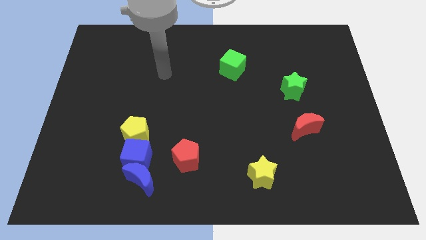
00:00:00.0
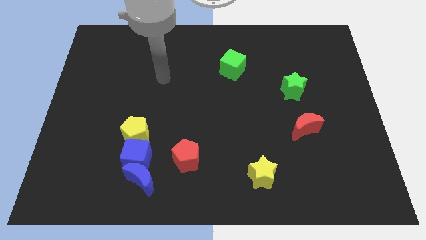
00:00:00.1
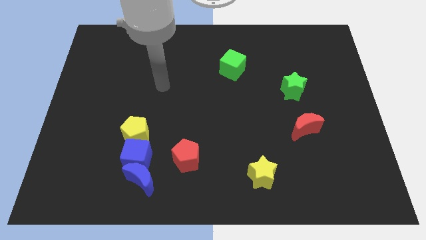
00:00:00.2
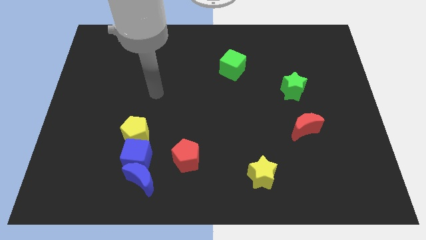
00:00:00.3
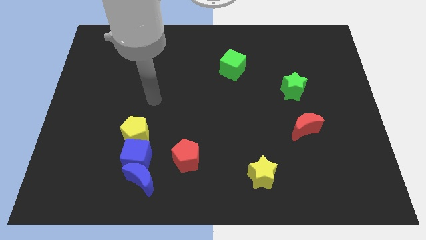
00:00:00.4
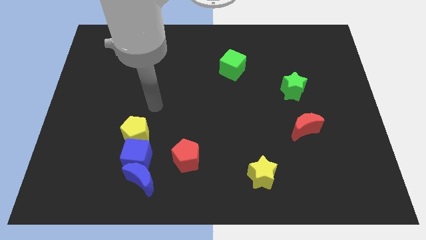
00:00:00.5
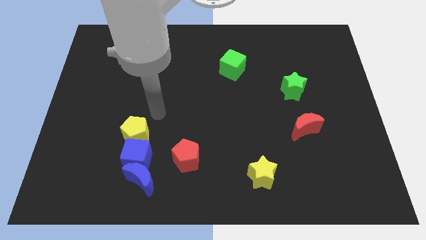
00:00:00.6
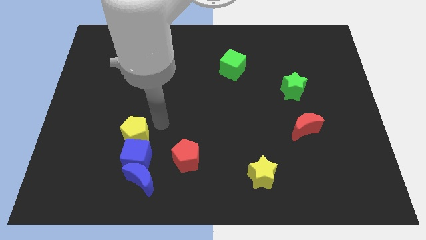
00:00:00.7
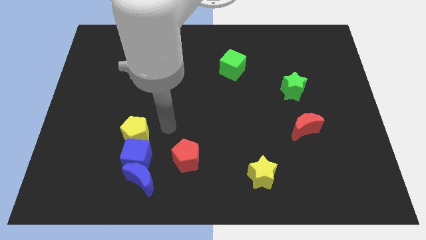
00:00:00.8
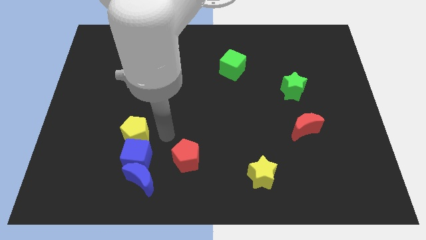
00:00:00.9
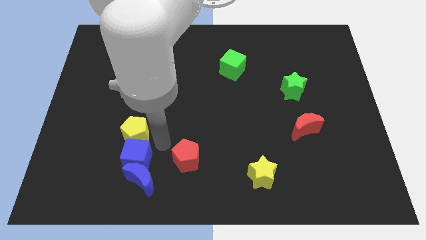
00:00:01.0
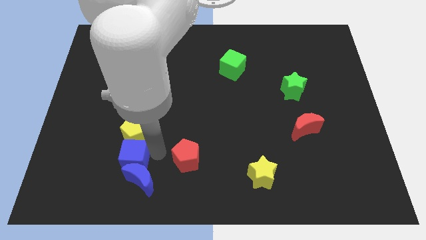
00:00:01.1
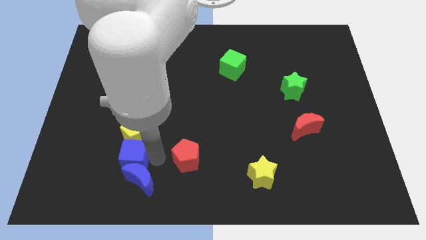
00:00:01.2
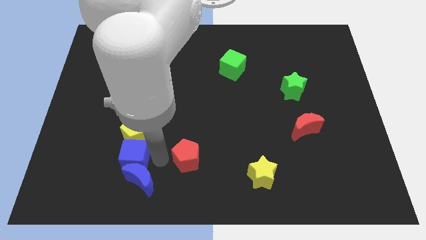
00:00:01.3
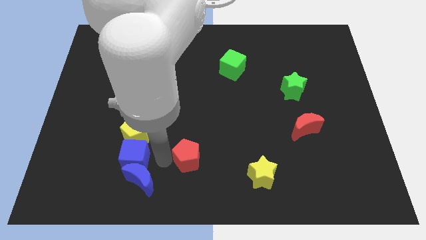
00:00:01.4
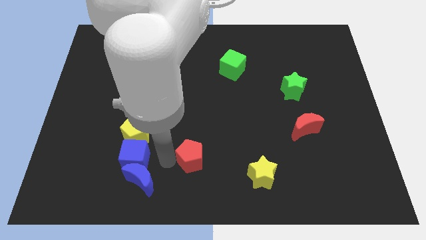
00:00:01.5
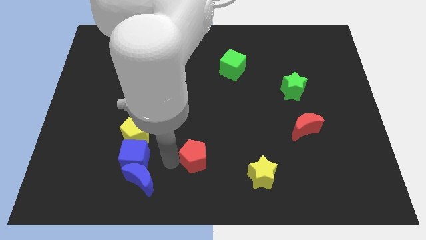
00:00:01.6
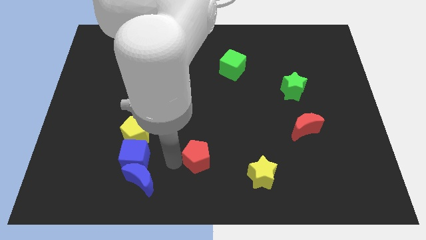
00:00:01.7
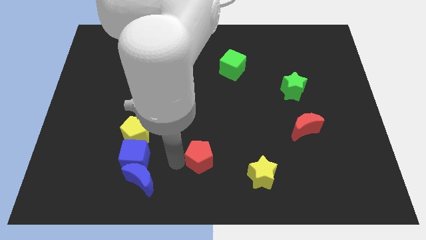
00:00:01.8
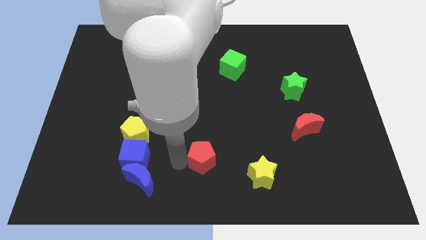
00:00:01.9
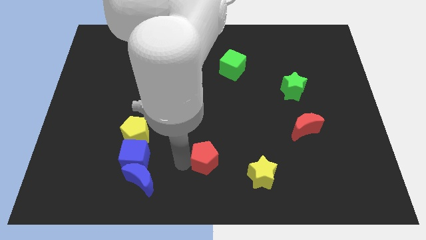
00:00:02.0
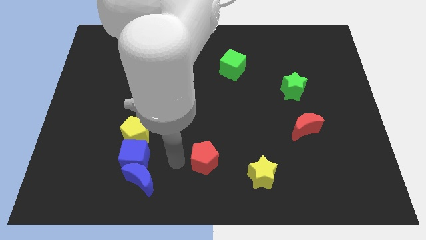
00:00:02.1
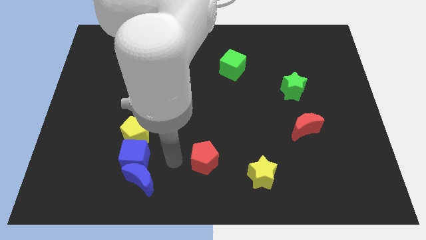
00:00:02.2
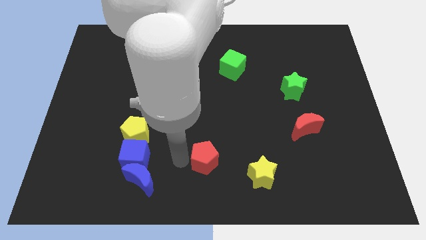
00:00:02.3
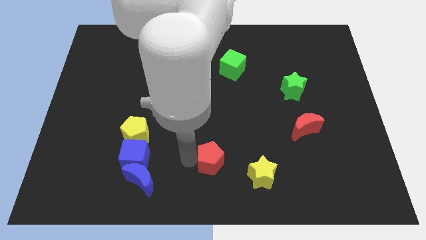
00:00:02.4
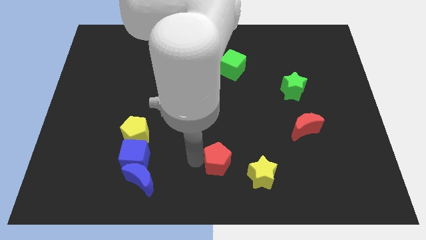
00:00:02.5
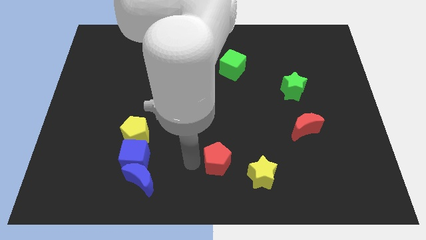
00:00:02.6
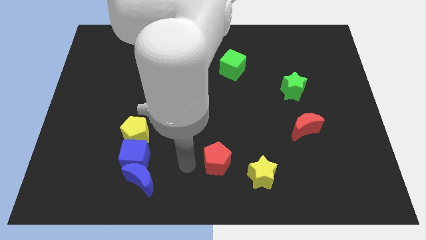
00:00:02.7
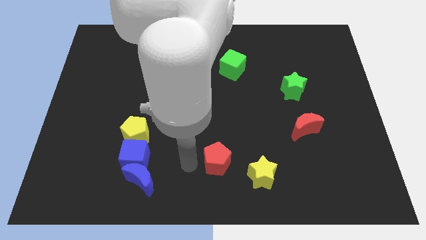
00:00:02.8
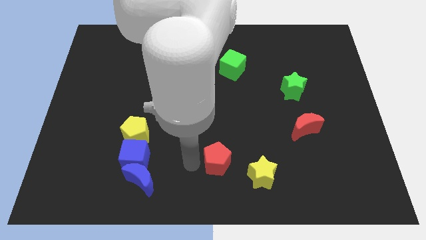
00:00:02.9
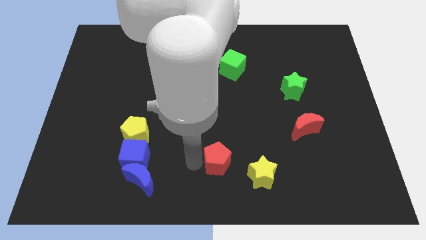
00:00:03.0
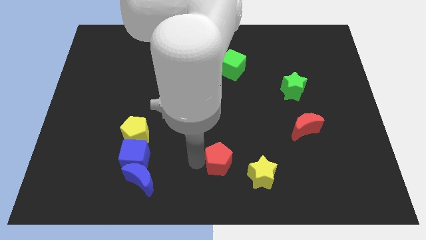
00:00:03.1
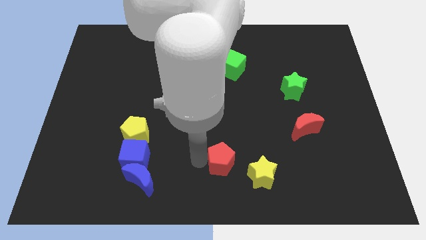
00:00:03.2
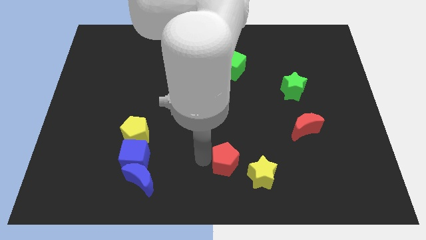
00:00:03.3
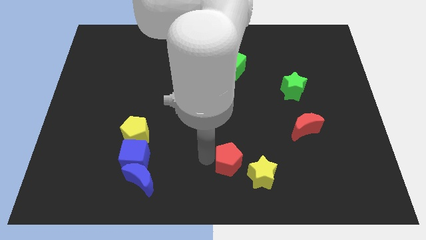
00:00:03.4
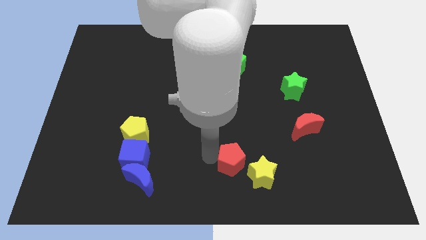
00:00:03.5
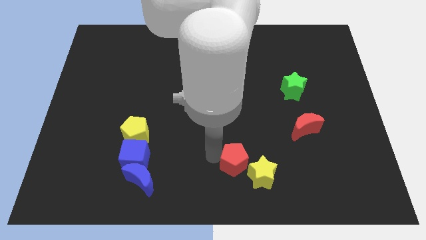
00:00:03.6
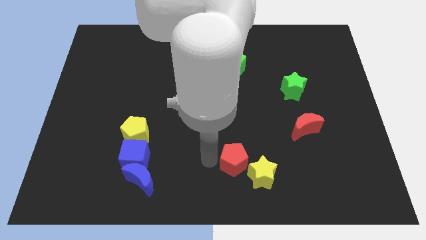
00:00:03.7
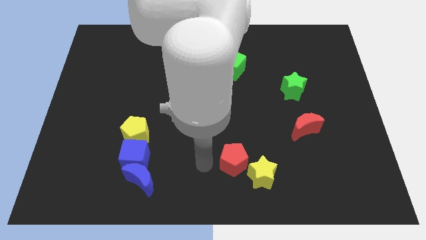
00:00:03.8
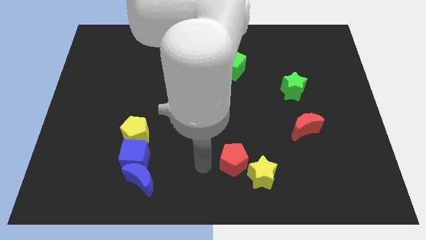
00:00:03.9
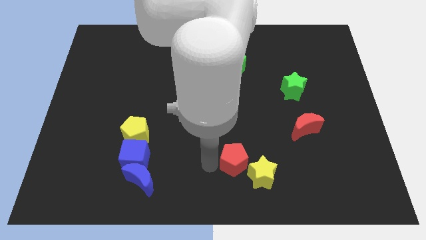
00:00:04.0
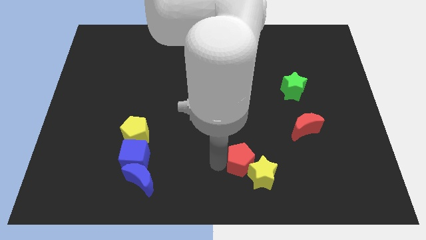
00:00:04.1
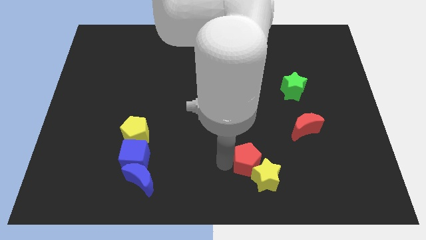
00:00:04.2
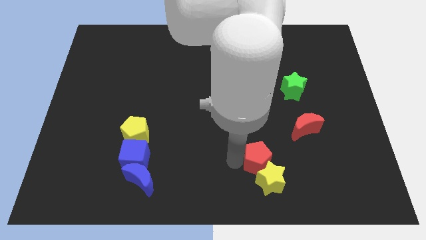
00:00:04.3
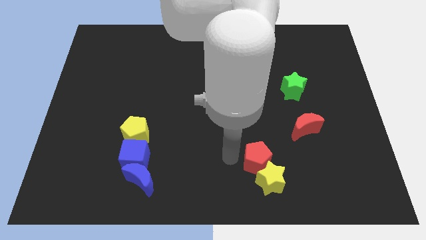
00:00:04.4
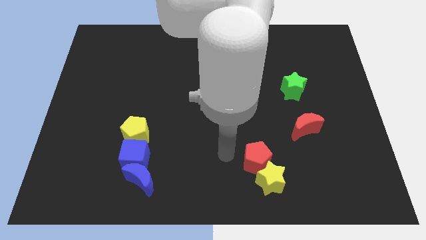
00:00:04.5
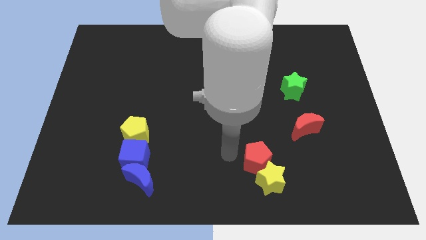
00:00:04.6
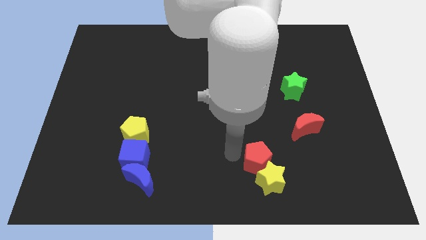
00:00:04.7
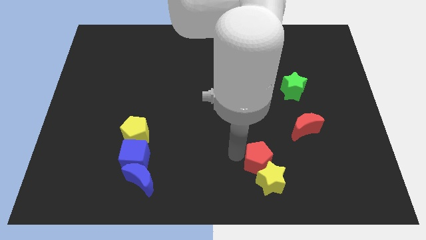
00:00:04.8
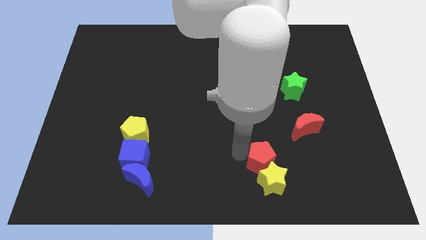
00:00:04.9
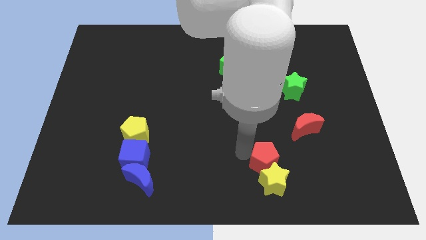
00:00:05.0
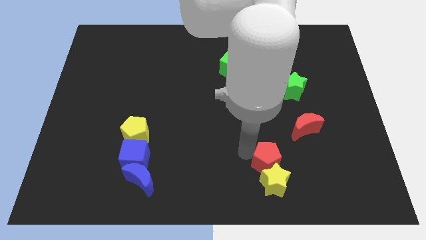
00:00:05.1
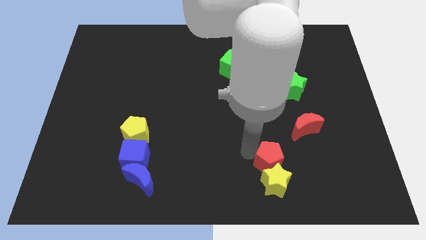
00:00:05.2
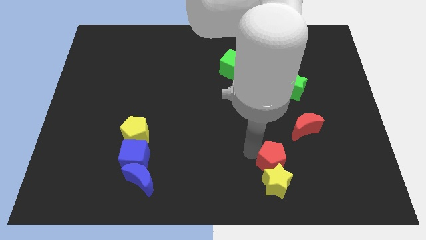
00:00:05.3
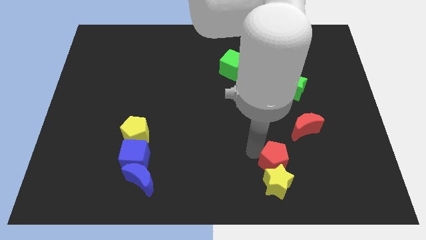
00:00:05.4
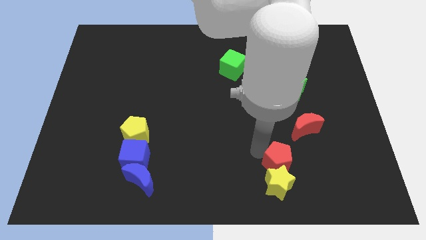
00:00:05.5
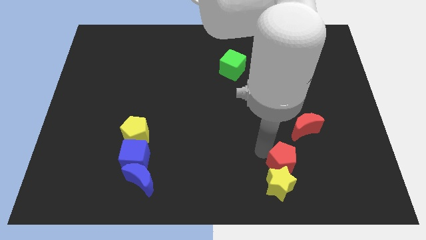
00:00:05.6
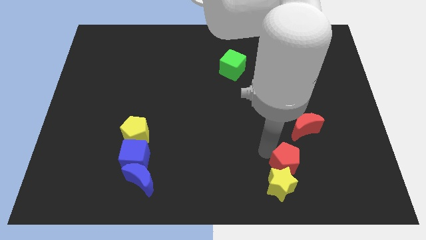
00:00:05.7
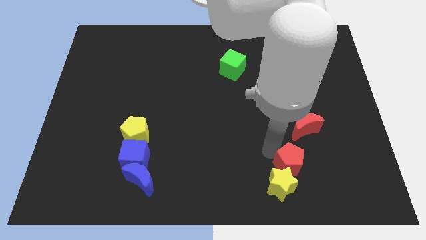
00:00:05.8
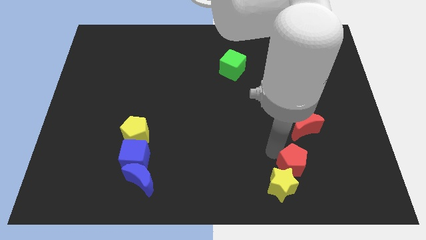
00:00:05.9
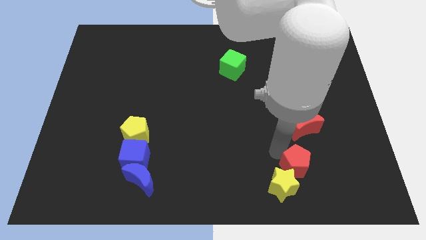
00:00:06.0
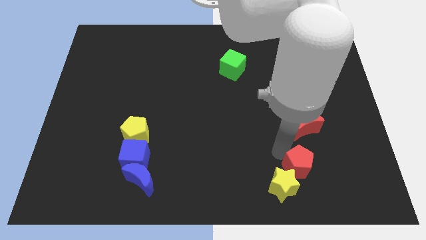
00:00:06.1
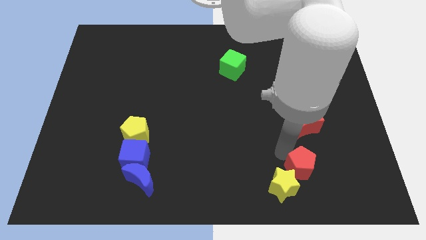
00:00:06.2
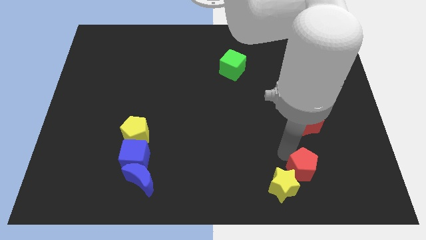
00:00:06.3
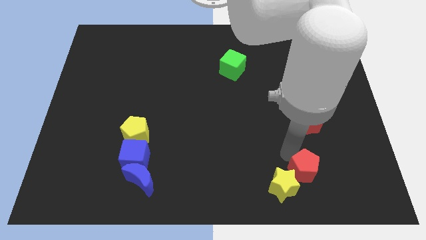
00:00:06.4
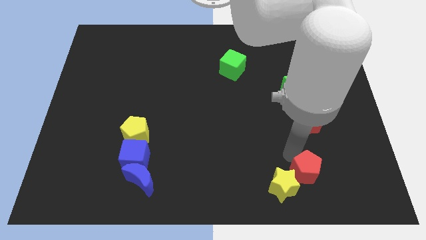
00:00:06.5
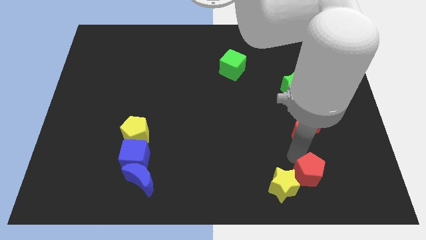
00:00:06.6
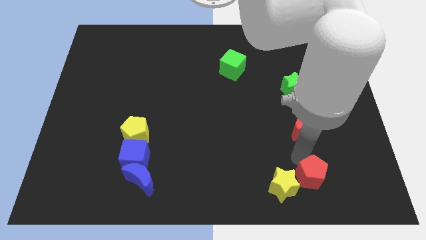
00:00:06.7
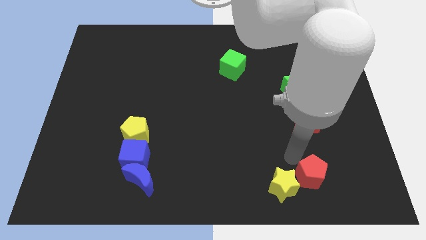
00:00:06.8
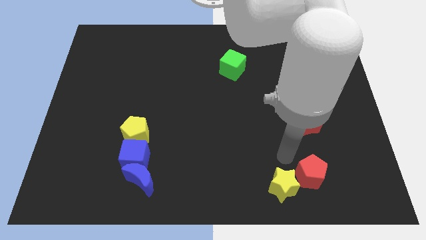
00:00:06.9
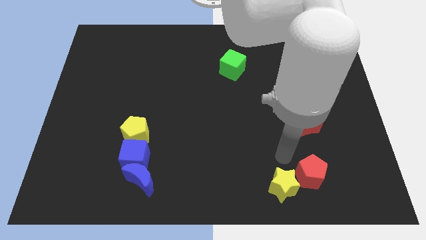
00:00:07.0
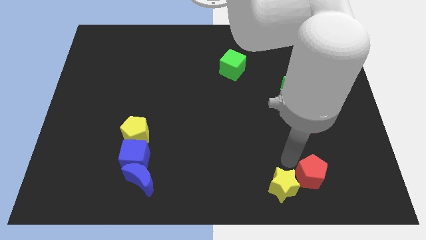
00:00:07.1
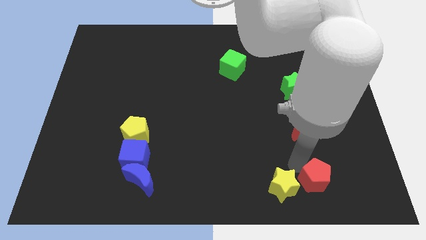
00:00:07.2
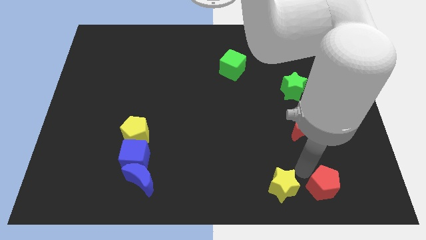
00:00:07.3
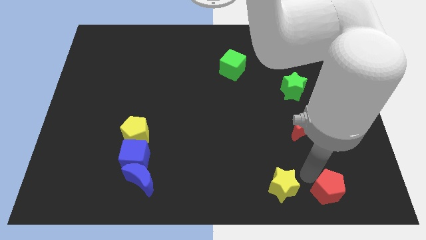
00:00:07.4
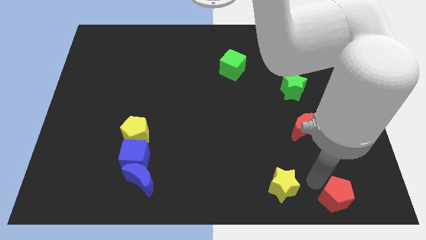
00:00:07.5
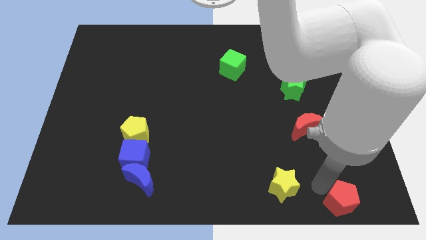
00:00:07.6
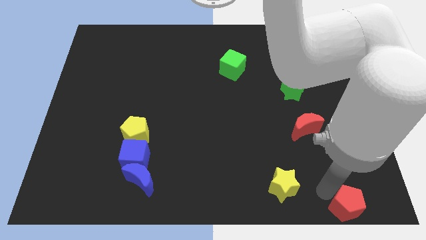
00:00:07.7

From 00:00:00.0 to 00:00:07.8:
slide the red pentagon to the bottom right
